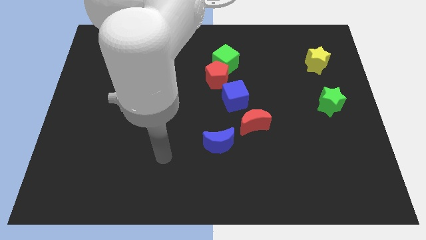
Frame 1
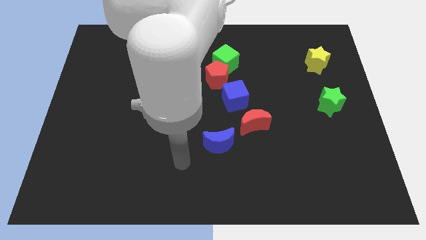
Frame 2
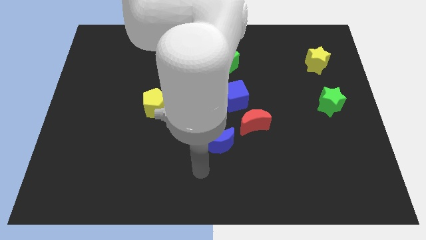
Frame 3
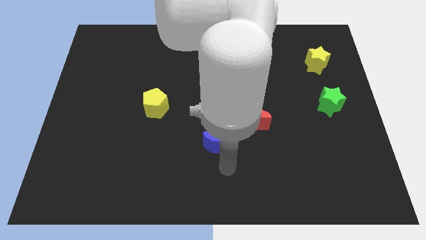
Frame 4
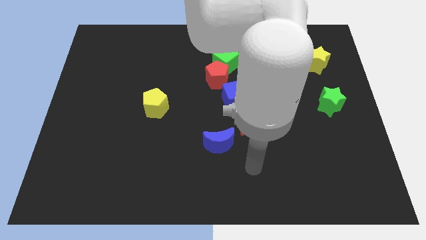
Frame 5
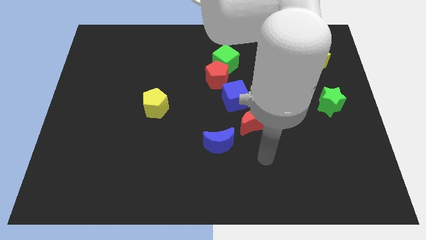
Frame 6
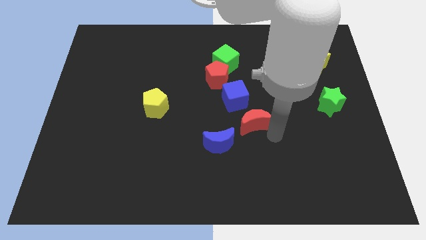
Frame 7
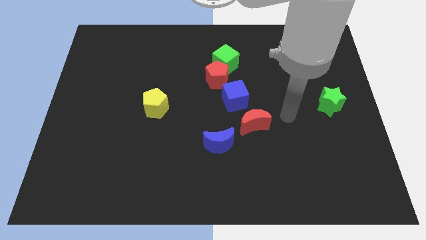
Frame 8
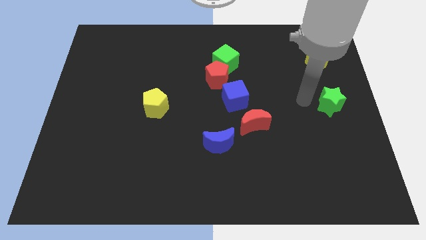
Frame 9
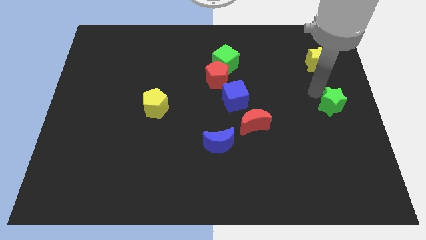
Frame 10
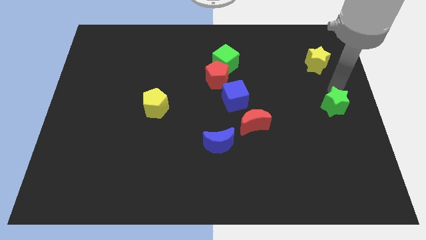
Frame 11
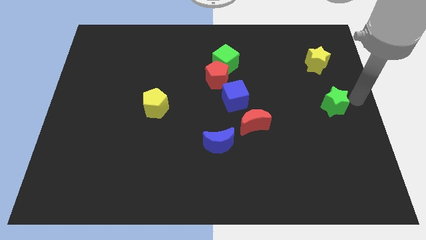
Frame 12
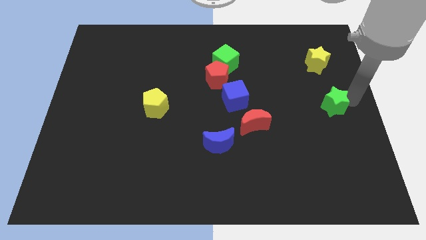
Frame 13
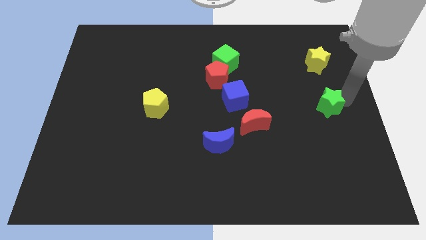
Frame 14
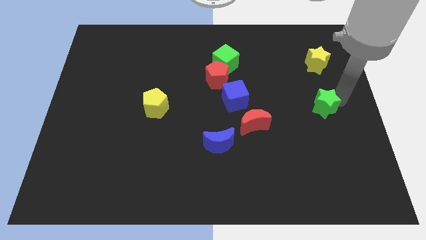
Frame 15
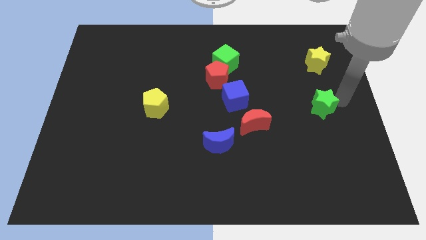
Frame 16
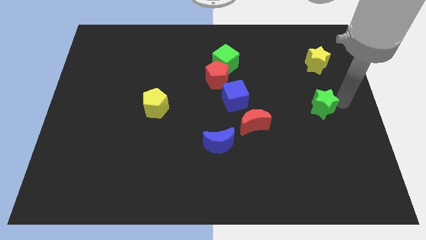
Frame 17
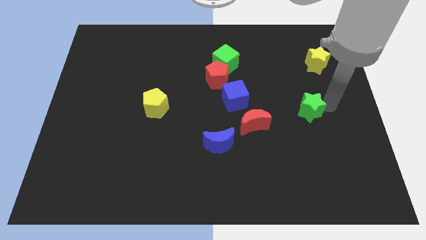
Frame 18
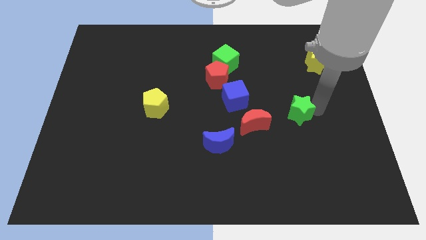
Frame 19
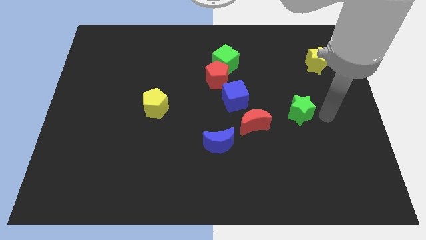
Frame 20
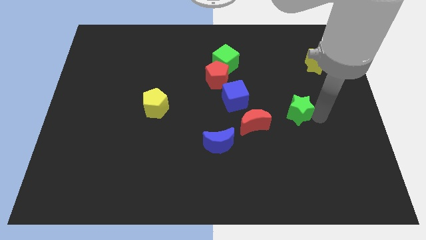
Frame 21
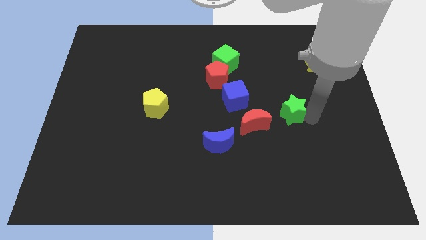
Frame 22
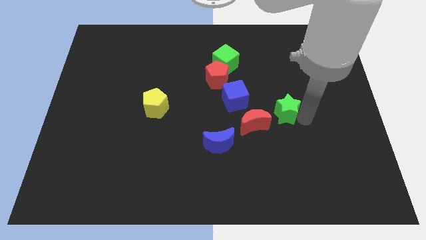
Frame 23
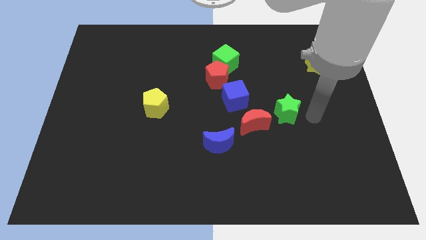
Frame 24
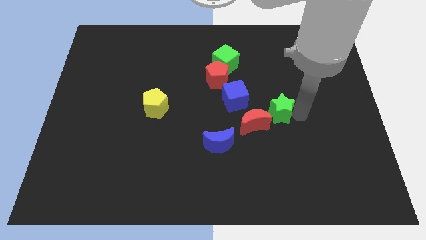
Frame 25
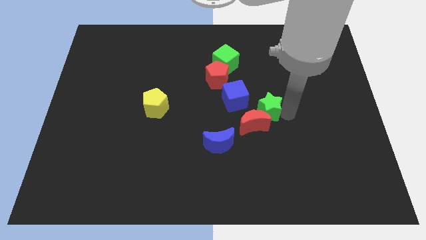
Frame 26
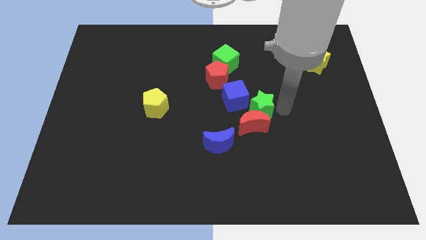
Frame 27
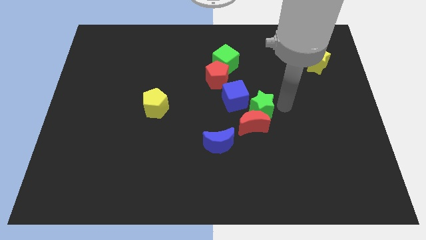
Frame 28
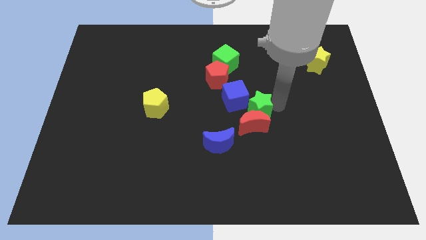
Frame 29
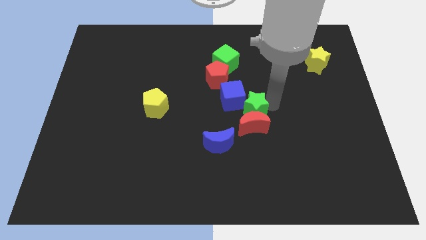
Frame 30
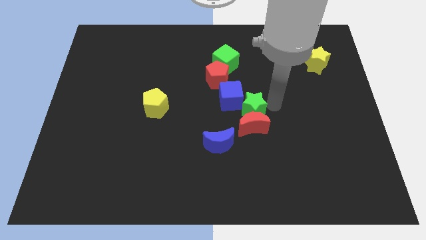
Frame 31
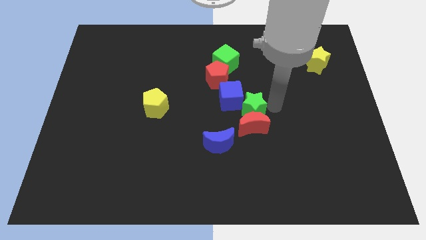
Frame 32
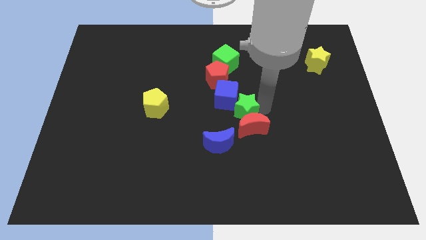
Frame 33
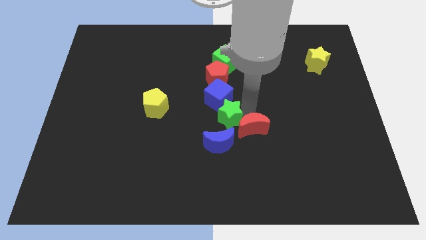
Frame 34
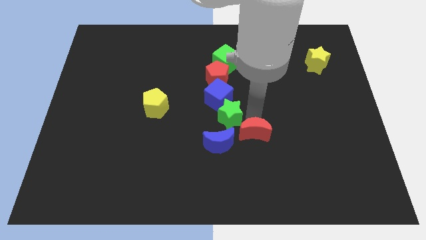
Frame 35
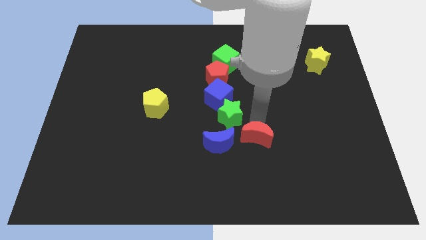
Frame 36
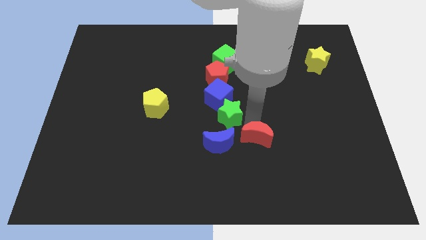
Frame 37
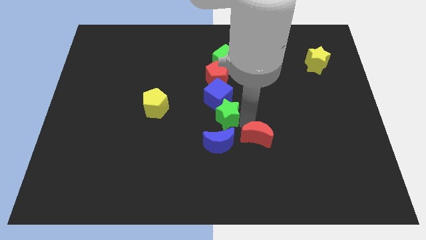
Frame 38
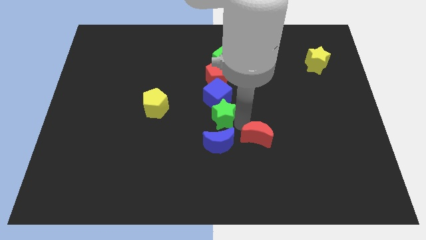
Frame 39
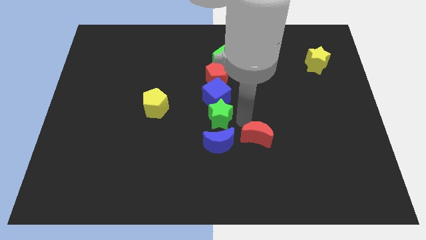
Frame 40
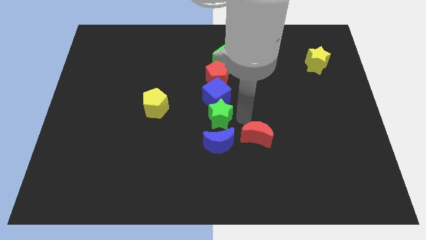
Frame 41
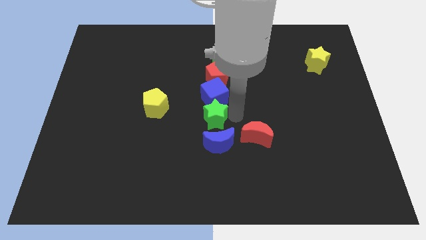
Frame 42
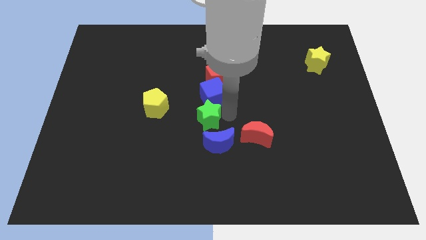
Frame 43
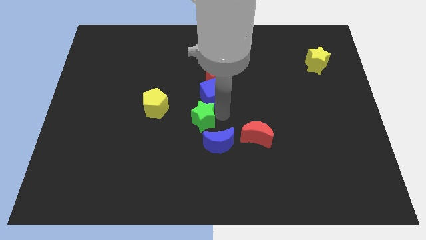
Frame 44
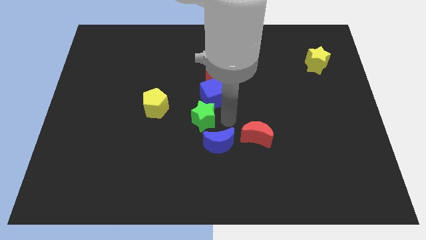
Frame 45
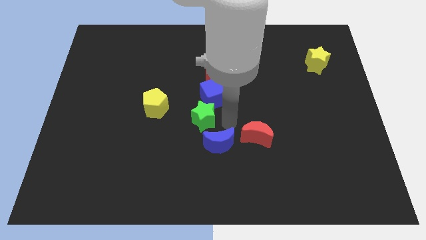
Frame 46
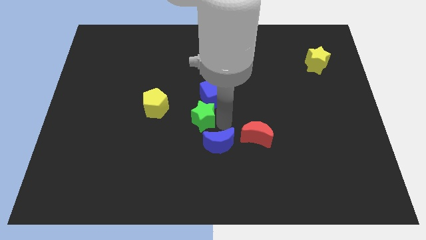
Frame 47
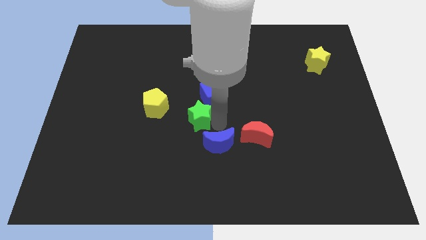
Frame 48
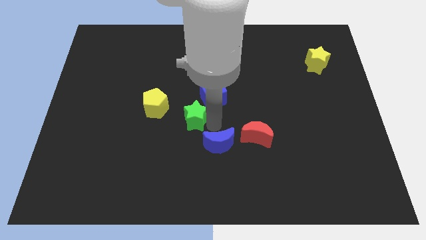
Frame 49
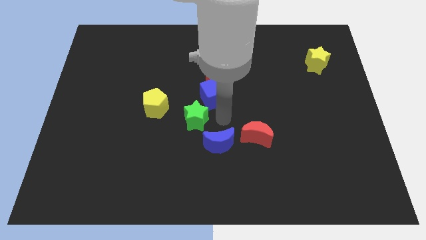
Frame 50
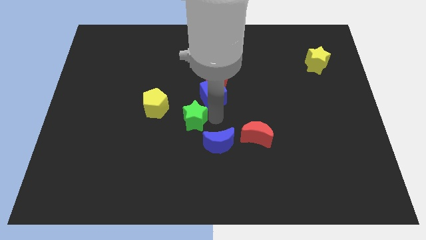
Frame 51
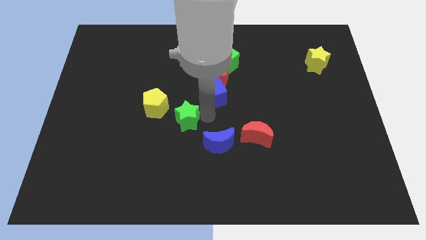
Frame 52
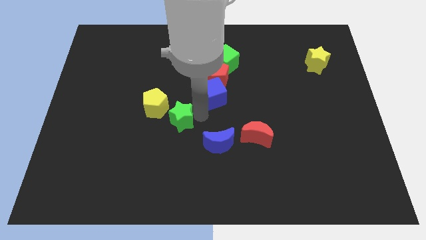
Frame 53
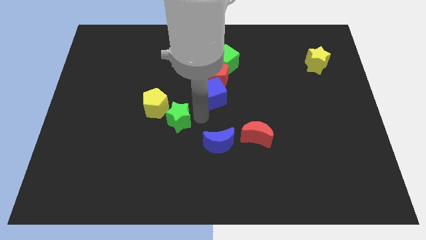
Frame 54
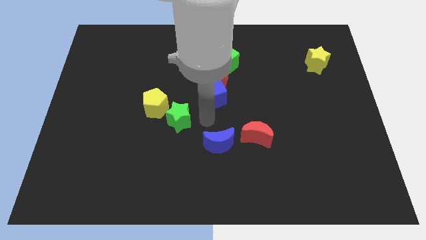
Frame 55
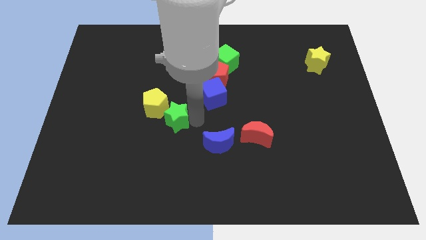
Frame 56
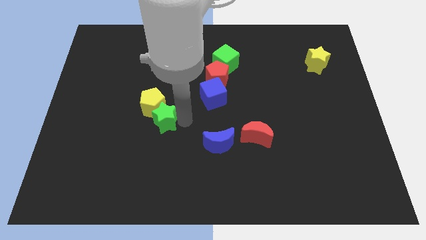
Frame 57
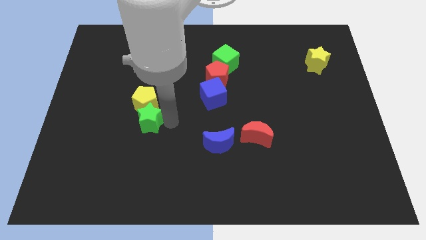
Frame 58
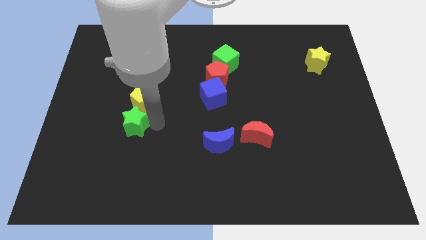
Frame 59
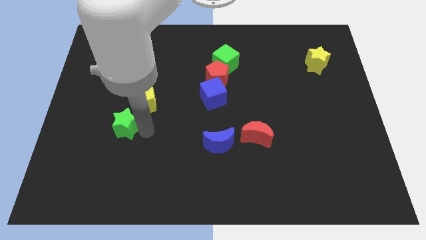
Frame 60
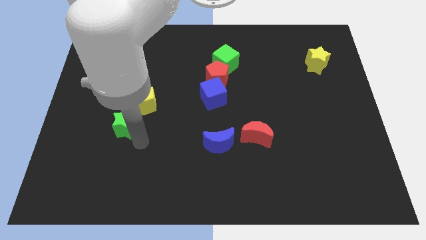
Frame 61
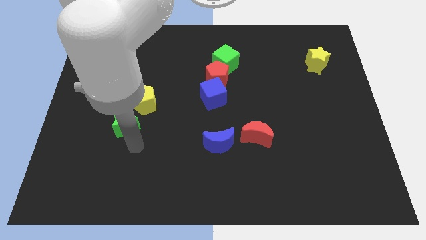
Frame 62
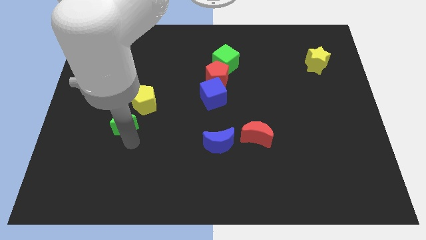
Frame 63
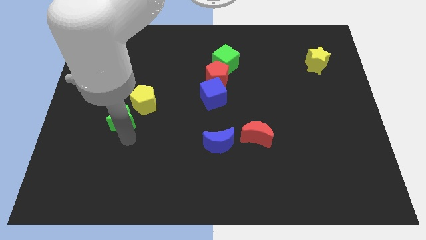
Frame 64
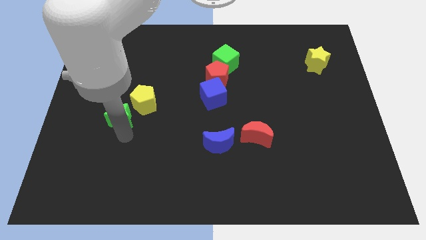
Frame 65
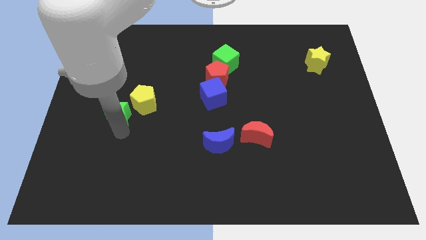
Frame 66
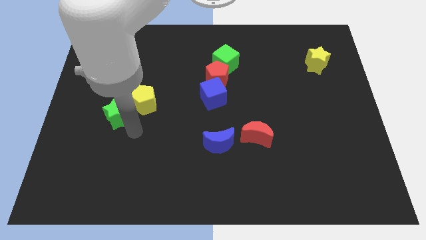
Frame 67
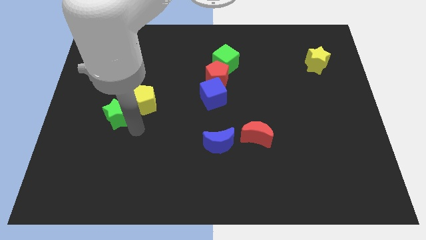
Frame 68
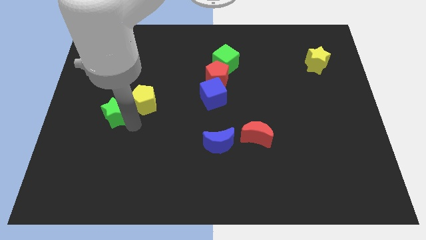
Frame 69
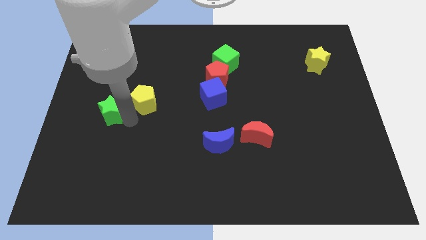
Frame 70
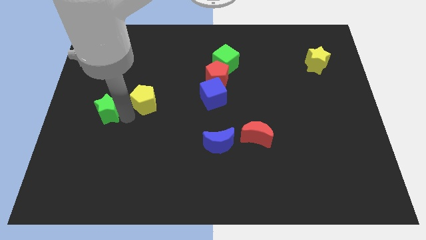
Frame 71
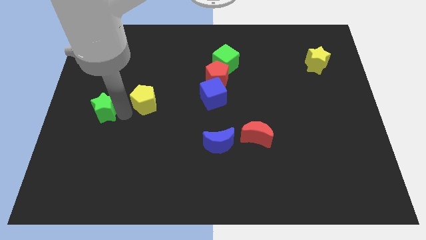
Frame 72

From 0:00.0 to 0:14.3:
move the green star to the left side of the board
